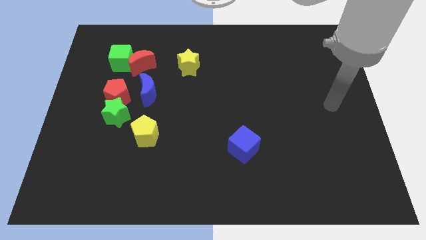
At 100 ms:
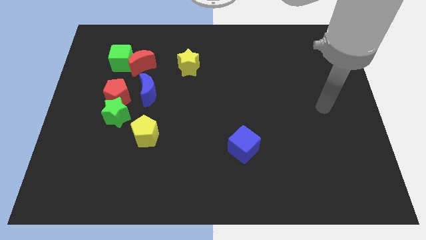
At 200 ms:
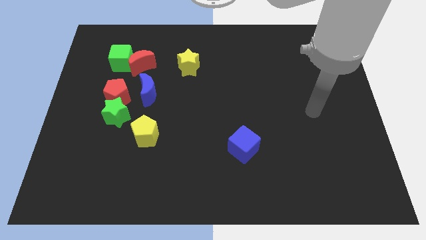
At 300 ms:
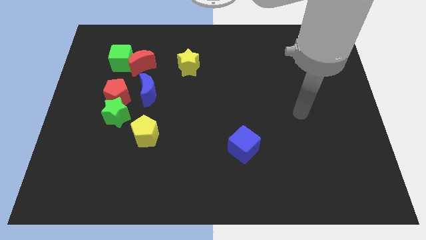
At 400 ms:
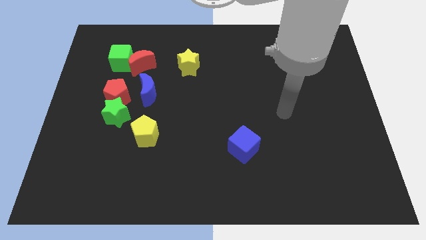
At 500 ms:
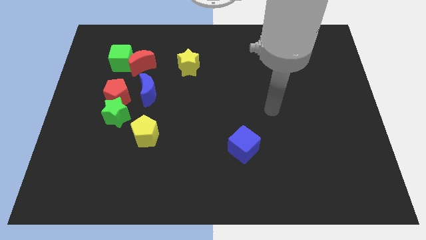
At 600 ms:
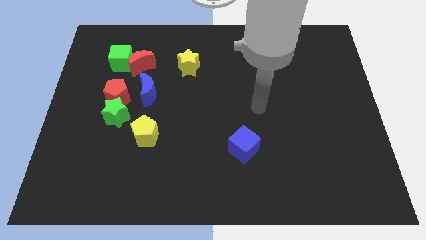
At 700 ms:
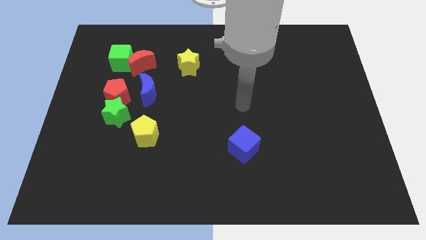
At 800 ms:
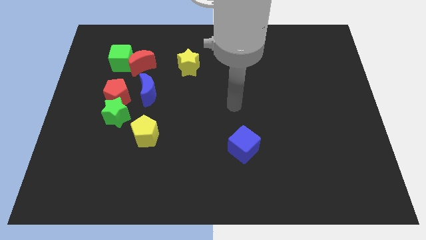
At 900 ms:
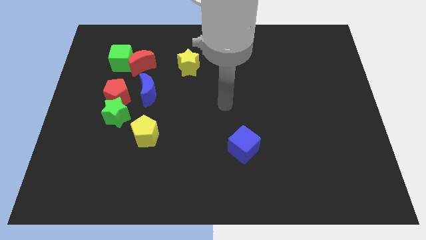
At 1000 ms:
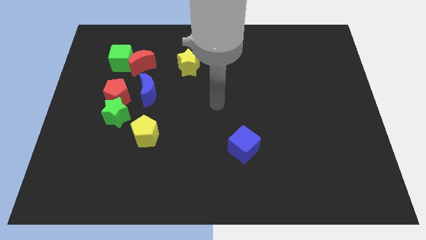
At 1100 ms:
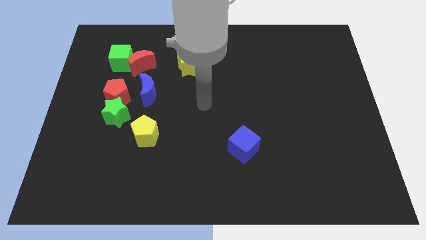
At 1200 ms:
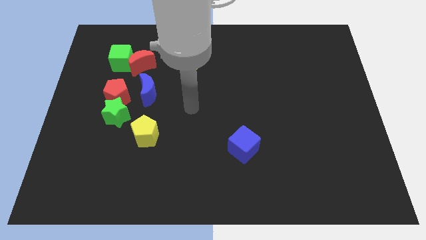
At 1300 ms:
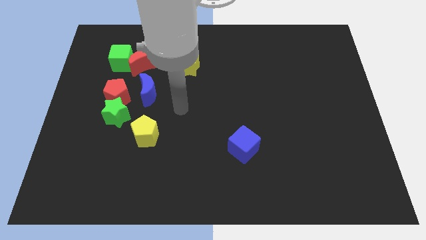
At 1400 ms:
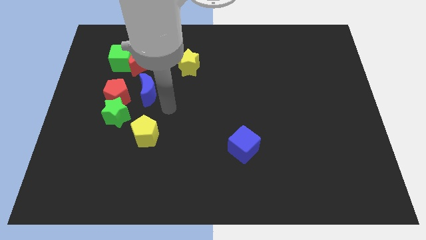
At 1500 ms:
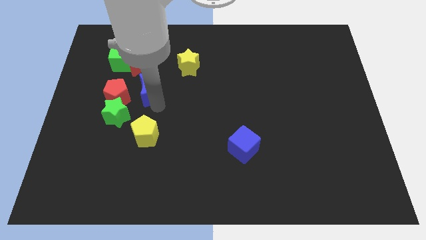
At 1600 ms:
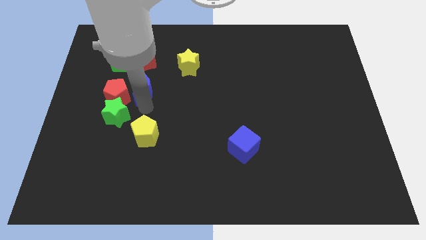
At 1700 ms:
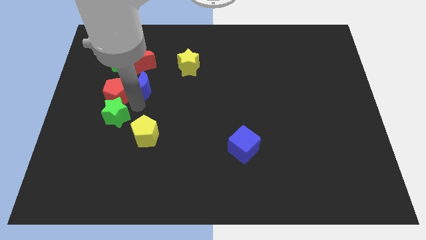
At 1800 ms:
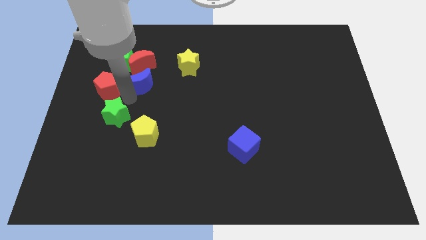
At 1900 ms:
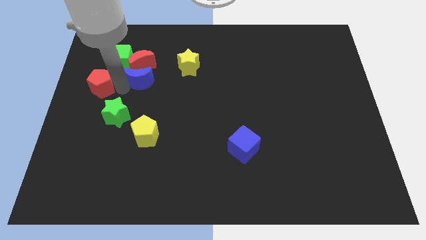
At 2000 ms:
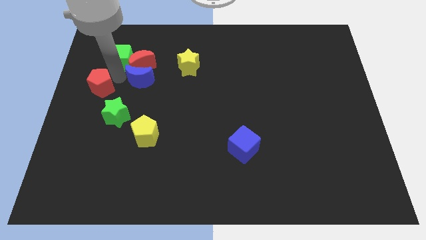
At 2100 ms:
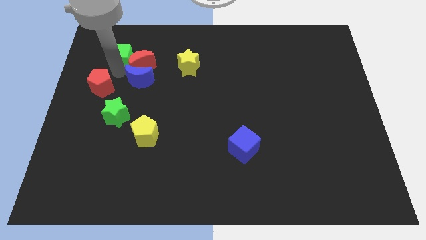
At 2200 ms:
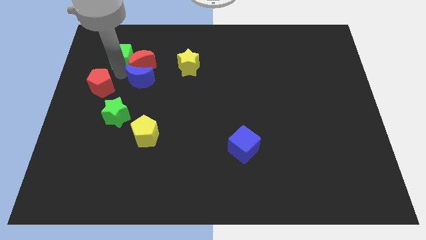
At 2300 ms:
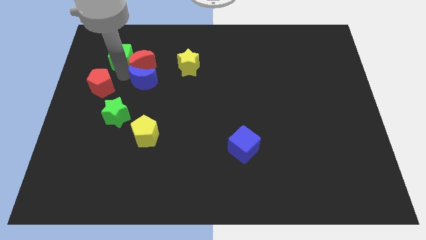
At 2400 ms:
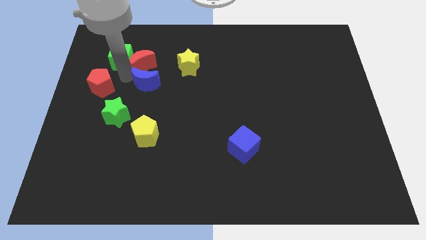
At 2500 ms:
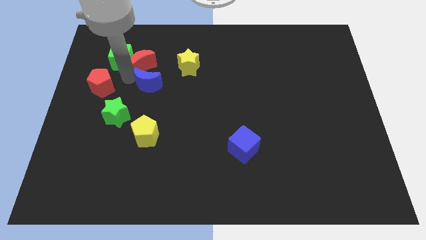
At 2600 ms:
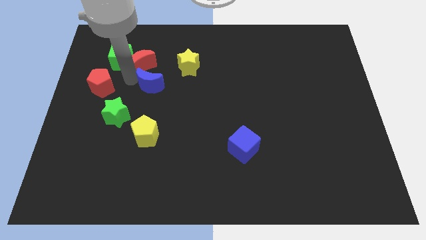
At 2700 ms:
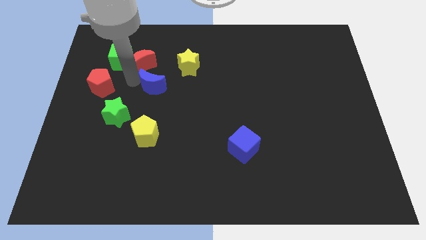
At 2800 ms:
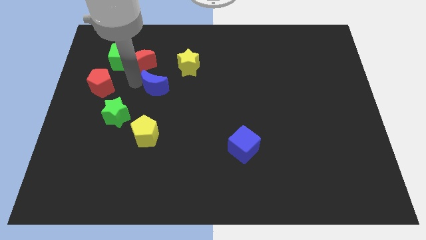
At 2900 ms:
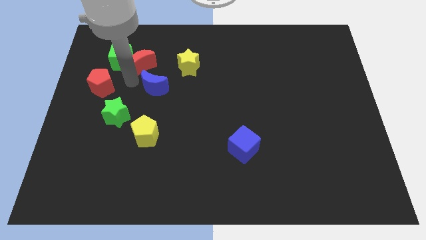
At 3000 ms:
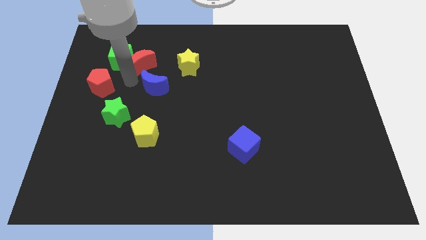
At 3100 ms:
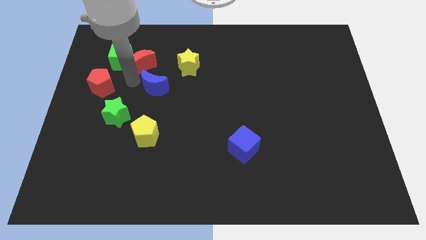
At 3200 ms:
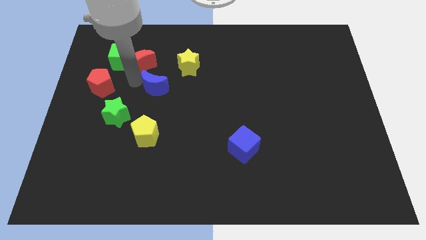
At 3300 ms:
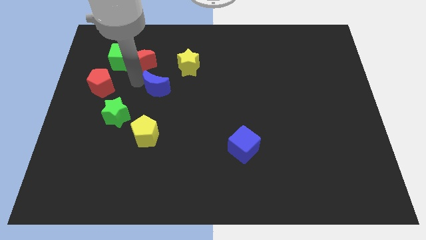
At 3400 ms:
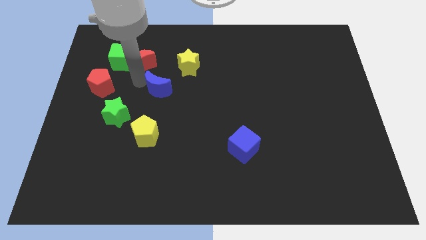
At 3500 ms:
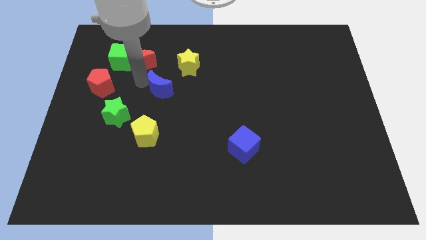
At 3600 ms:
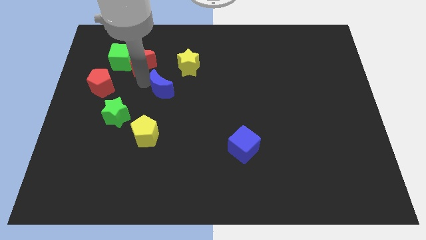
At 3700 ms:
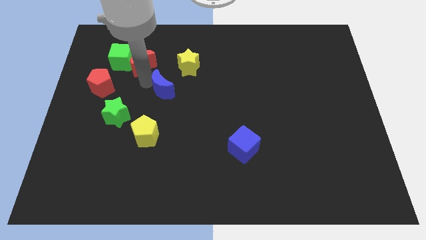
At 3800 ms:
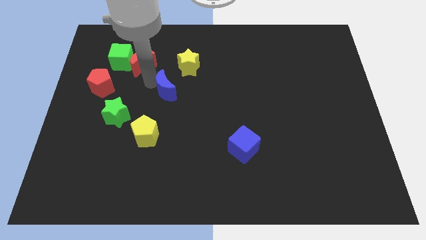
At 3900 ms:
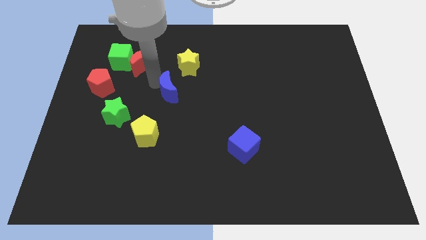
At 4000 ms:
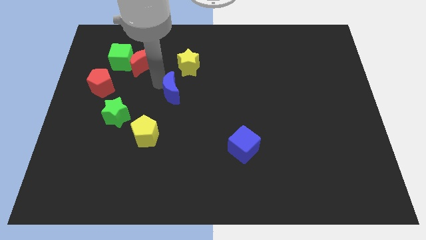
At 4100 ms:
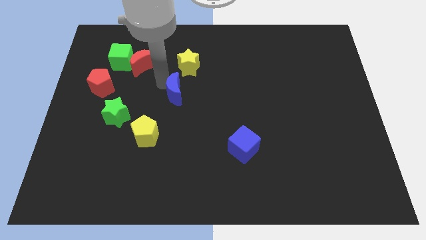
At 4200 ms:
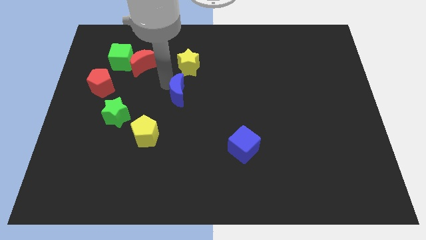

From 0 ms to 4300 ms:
move the blue moon somewhat right

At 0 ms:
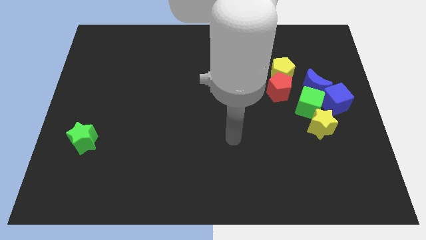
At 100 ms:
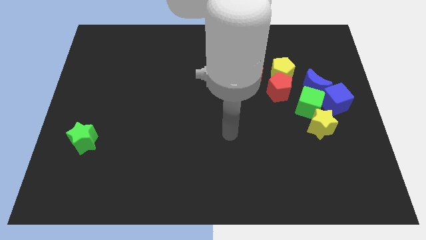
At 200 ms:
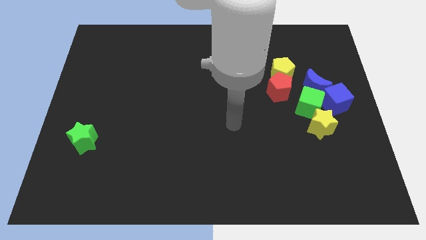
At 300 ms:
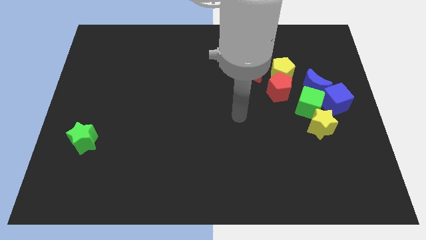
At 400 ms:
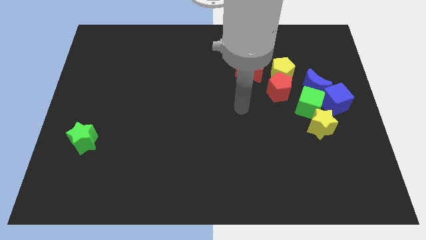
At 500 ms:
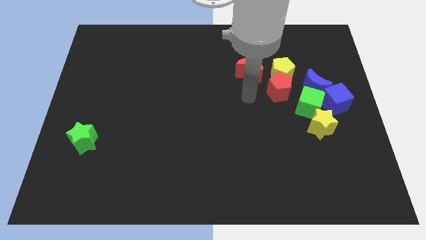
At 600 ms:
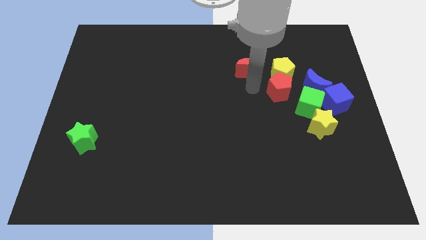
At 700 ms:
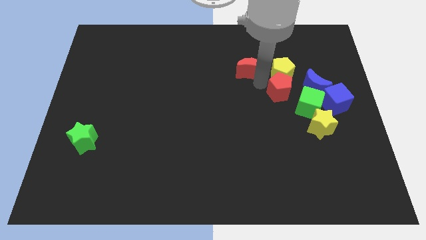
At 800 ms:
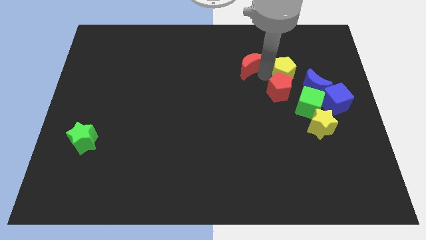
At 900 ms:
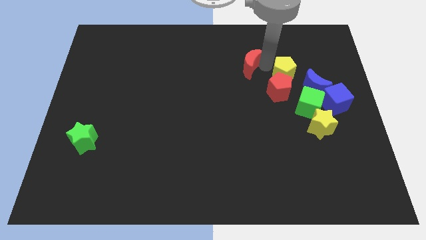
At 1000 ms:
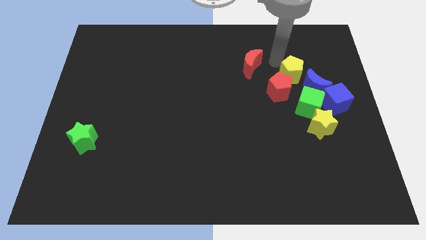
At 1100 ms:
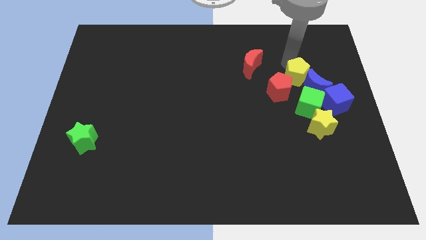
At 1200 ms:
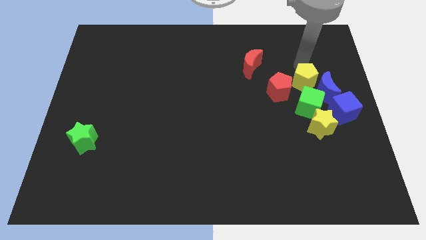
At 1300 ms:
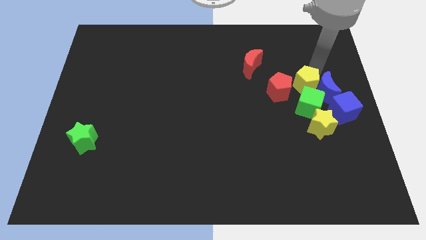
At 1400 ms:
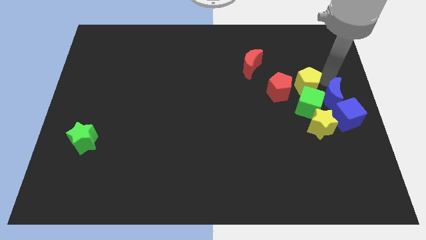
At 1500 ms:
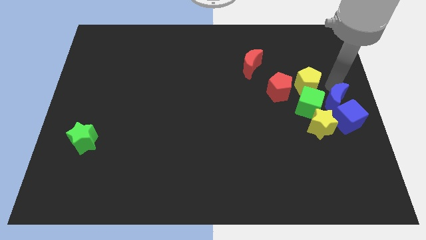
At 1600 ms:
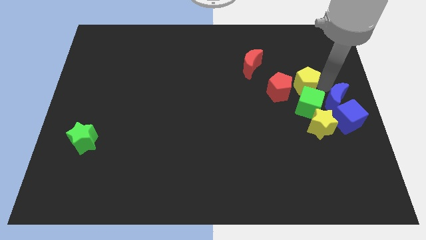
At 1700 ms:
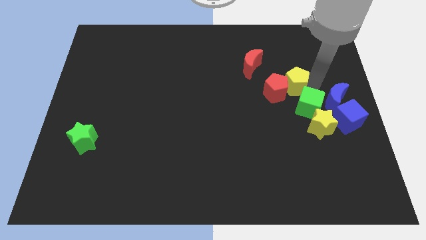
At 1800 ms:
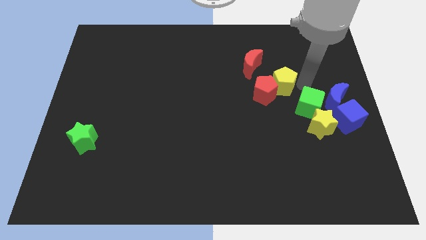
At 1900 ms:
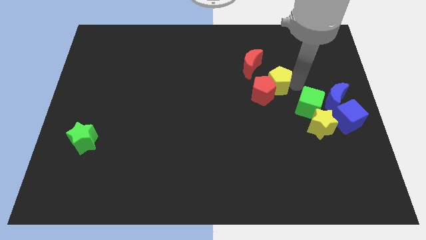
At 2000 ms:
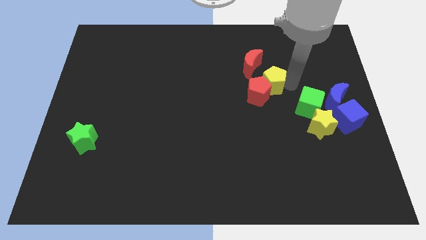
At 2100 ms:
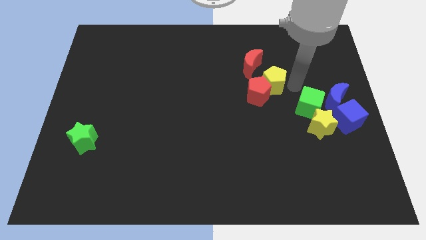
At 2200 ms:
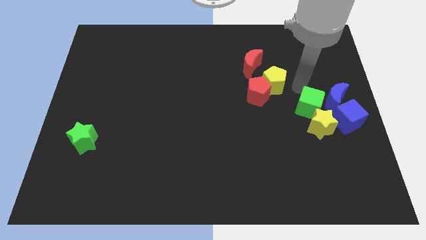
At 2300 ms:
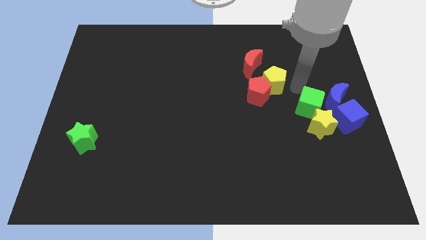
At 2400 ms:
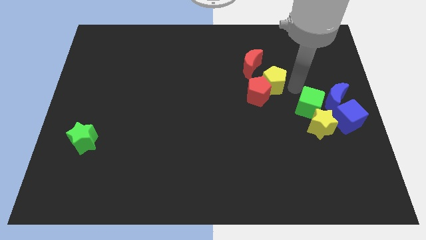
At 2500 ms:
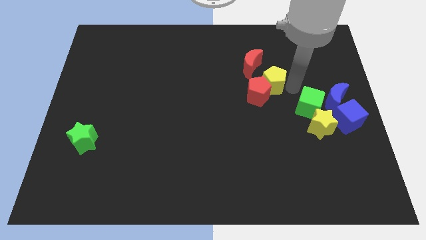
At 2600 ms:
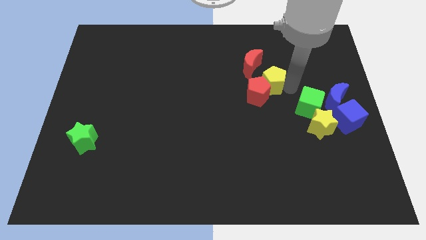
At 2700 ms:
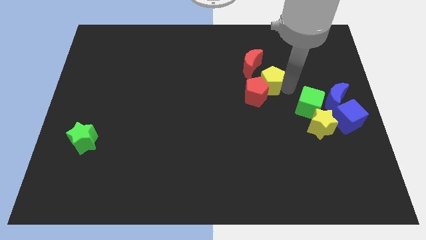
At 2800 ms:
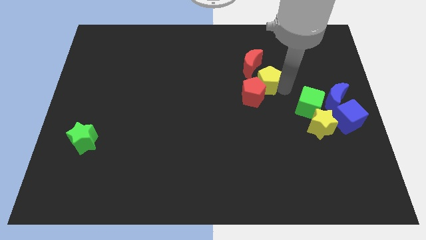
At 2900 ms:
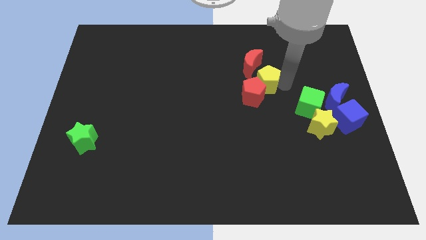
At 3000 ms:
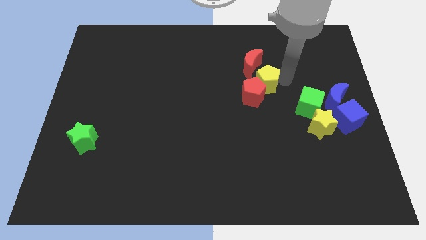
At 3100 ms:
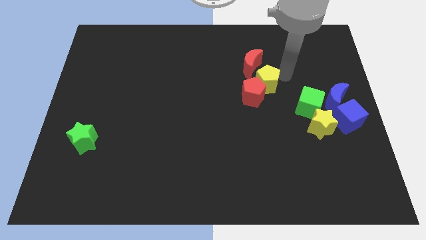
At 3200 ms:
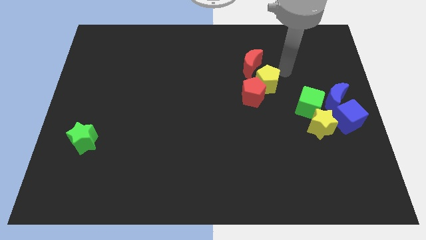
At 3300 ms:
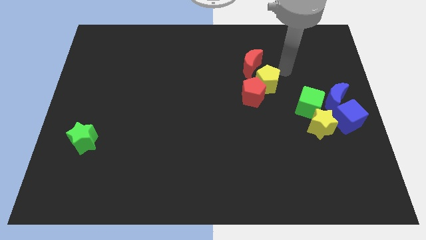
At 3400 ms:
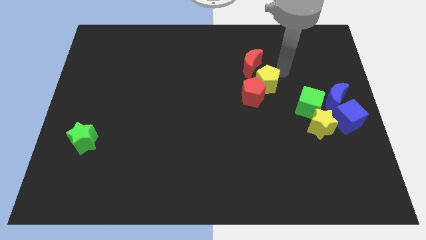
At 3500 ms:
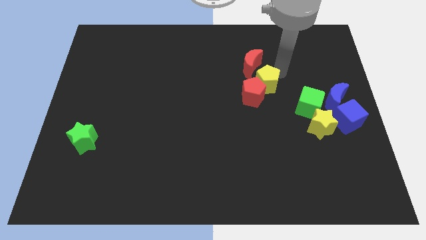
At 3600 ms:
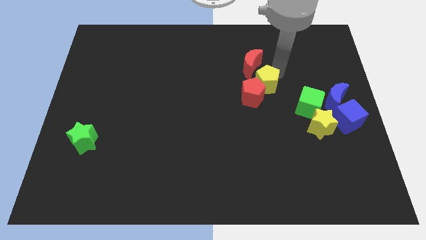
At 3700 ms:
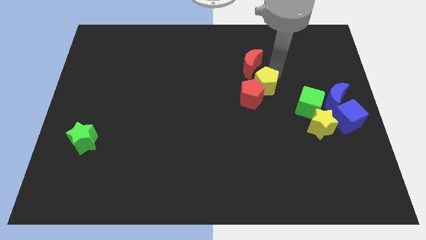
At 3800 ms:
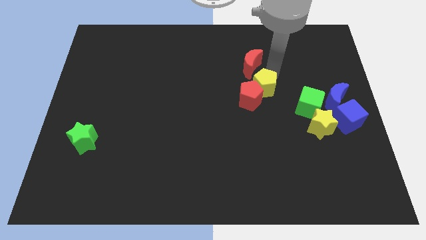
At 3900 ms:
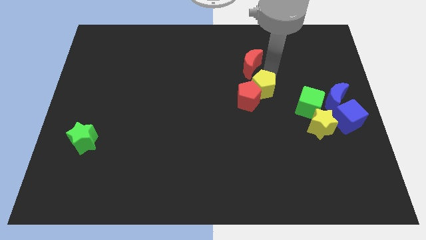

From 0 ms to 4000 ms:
push the yellow pentagon downwards and then left a bit
